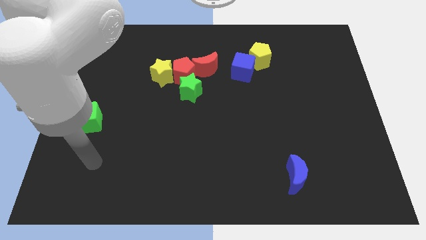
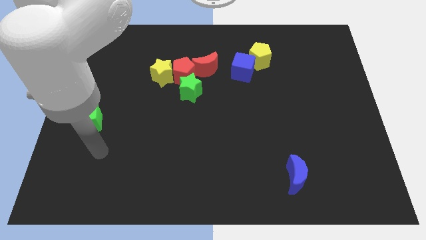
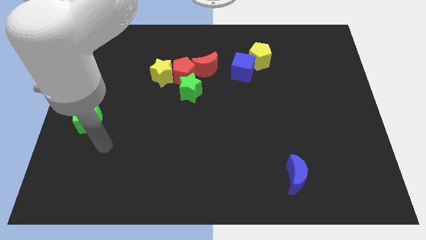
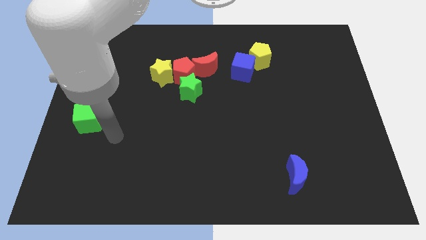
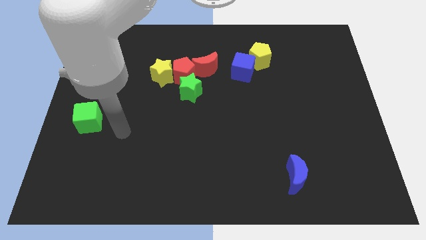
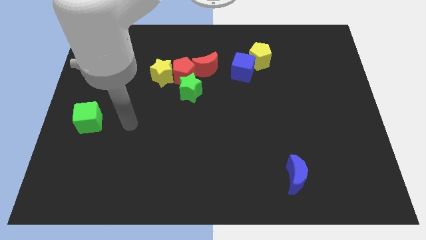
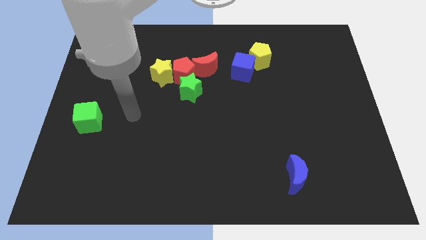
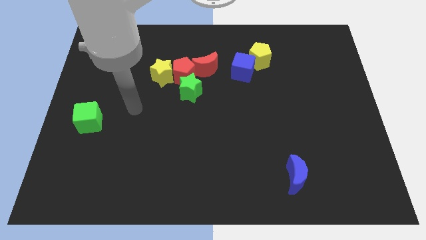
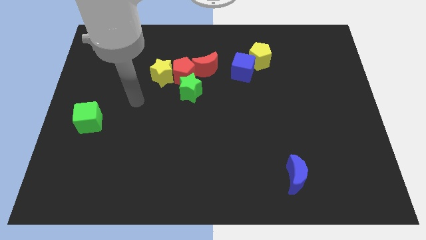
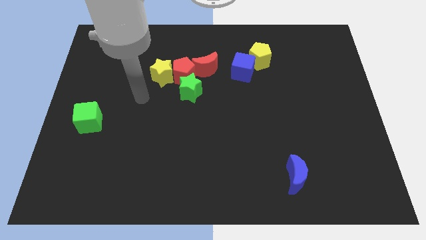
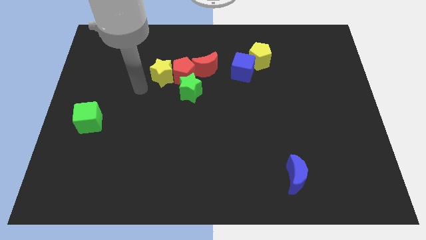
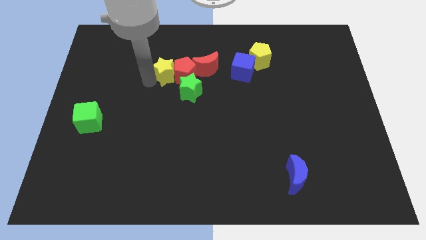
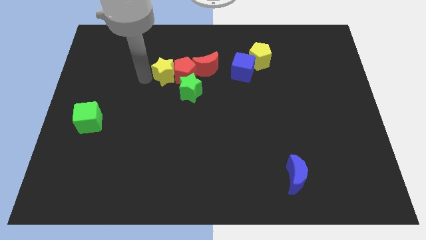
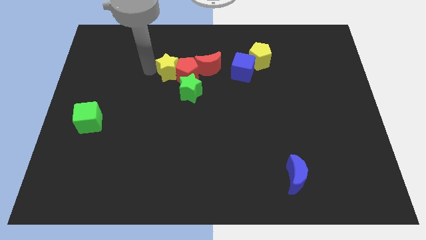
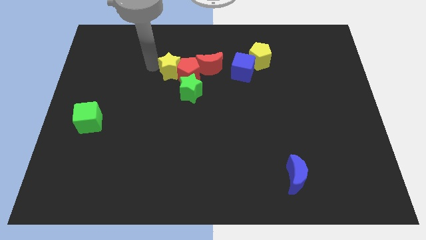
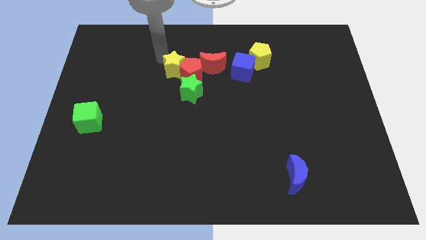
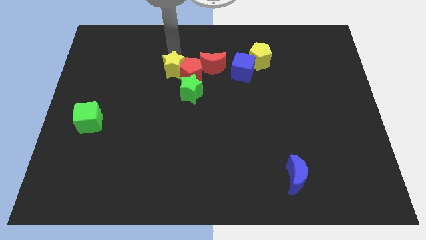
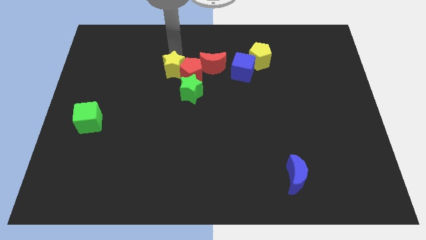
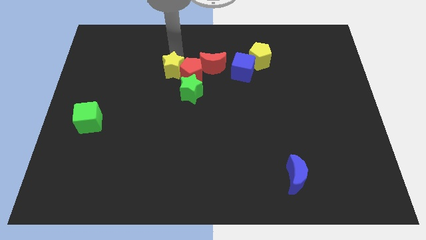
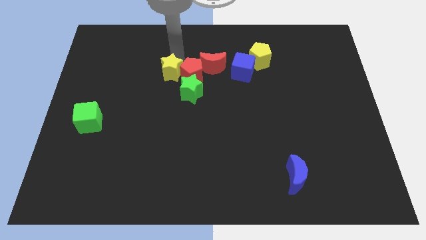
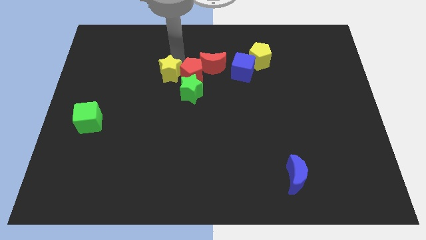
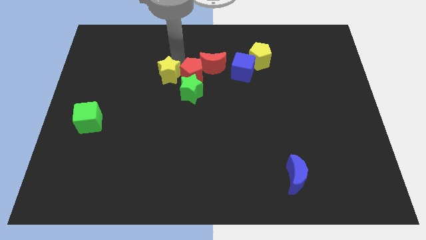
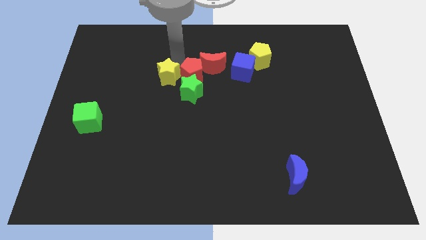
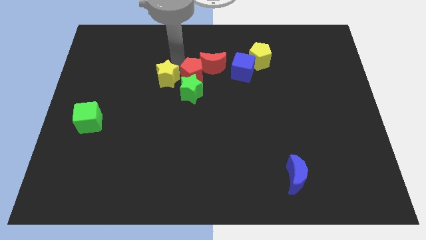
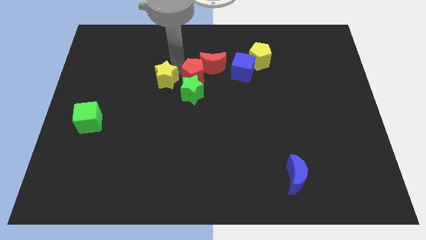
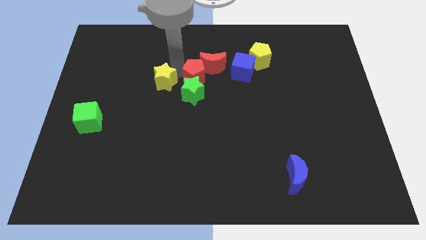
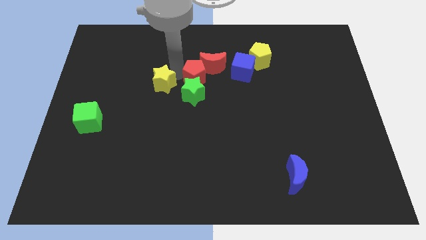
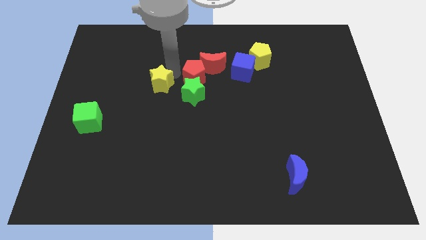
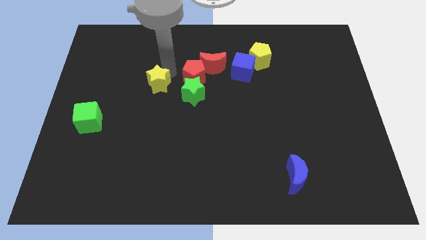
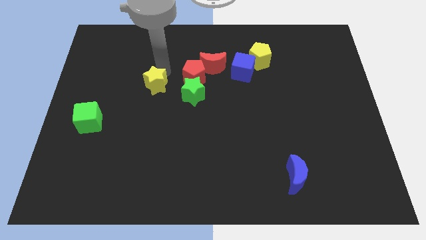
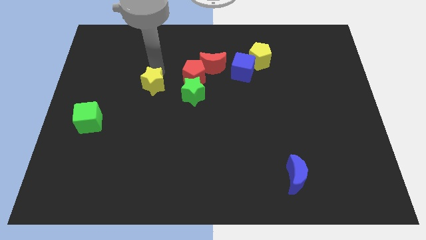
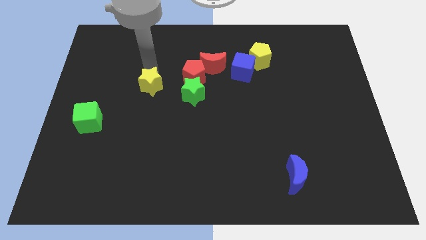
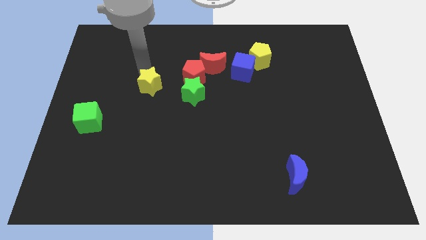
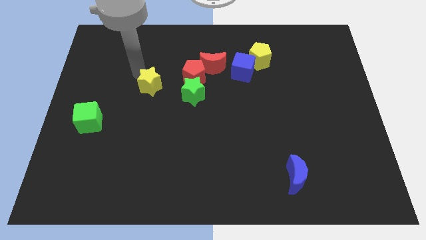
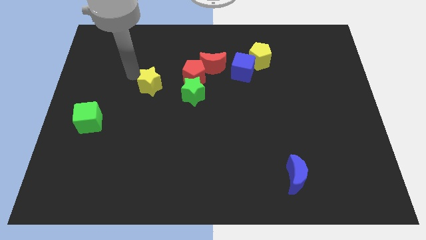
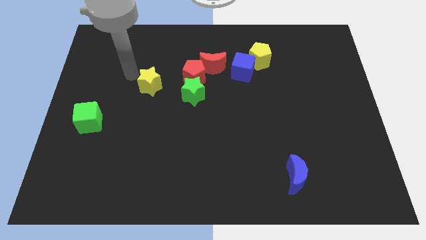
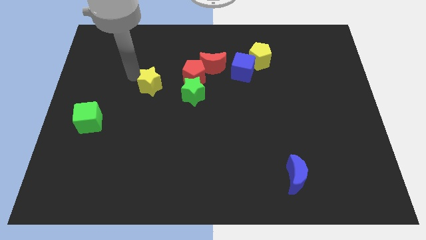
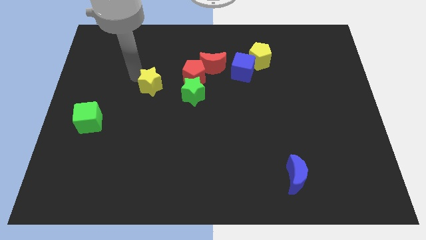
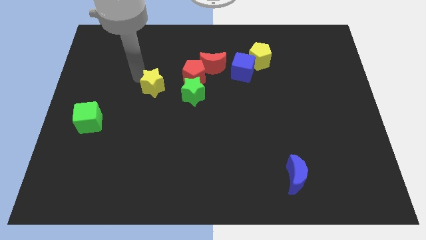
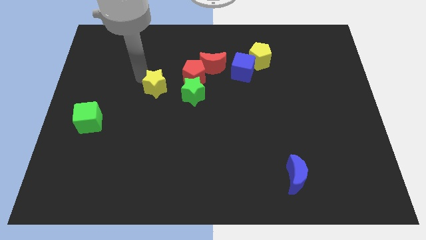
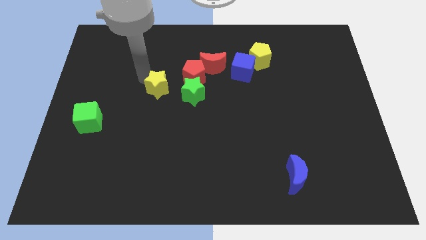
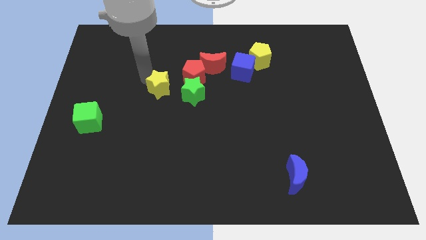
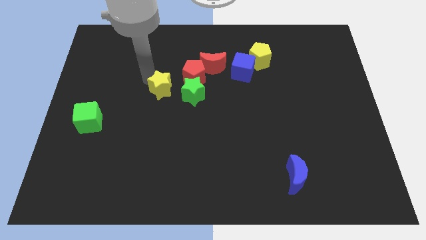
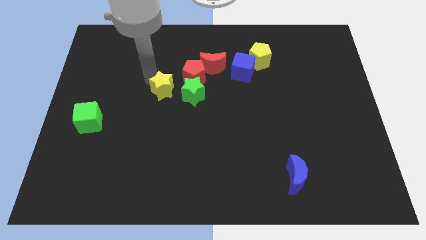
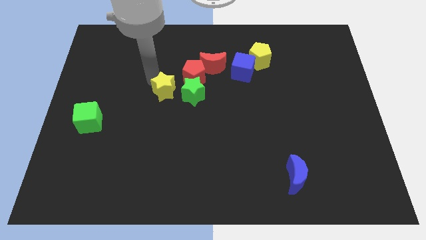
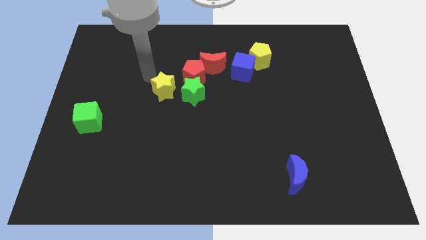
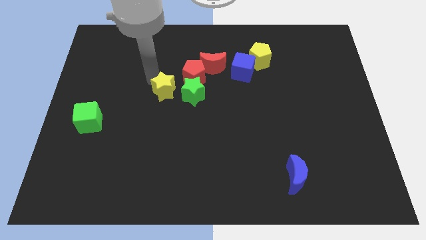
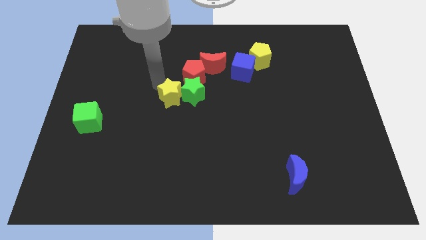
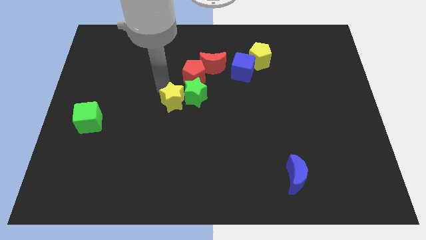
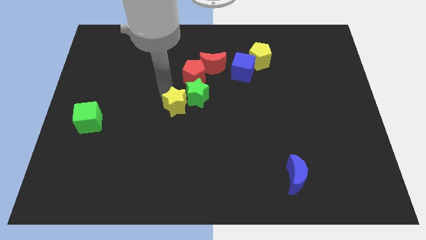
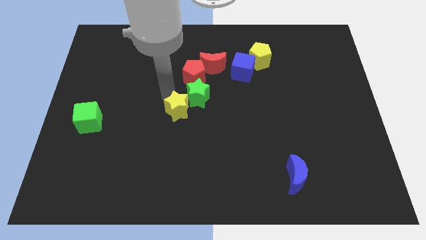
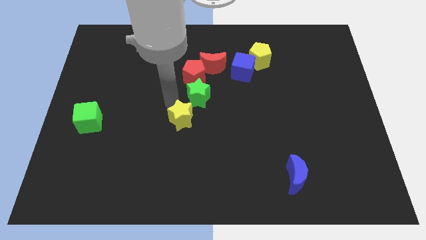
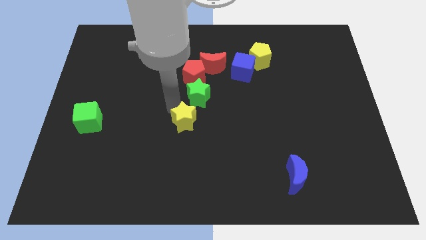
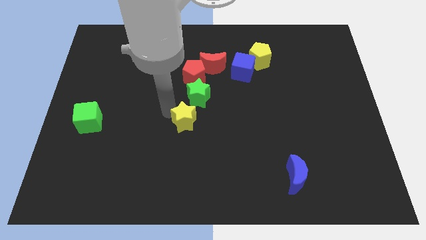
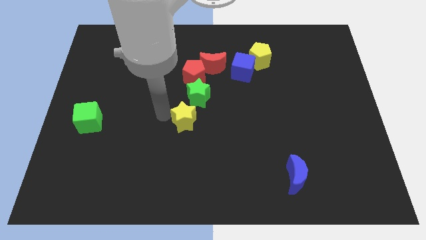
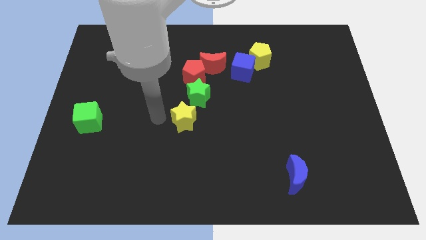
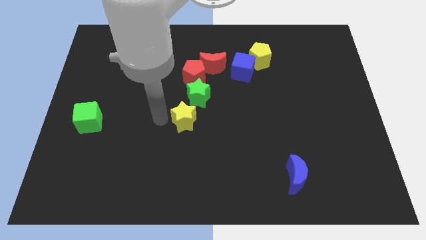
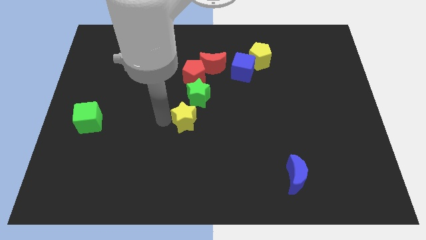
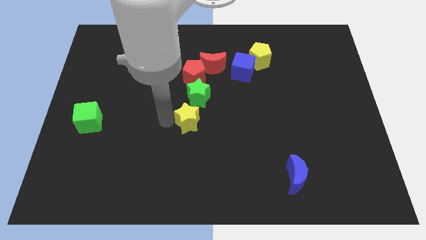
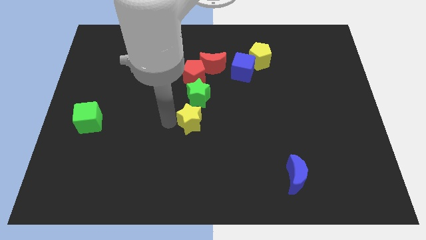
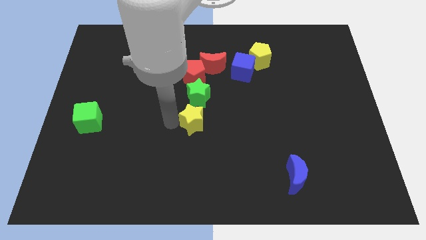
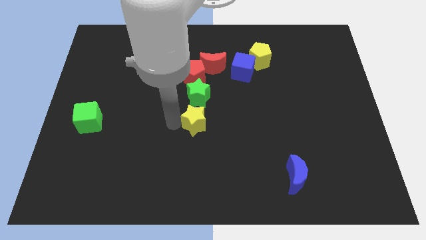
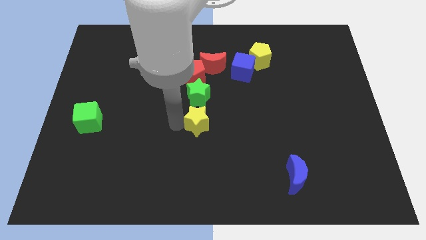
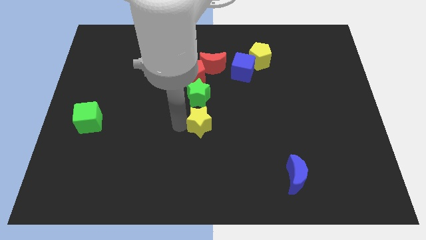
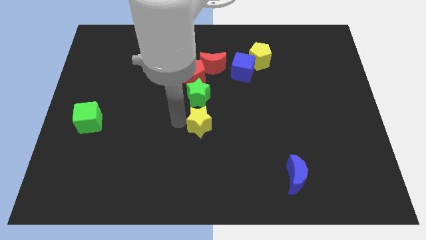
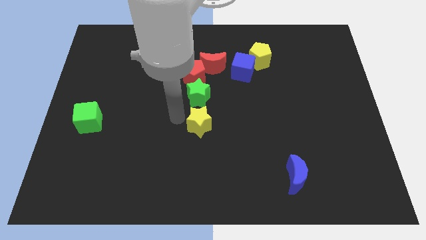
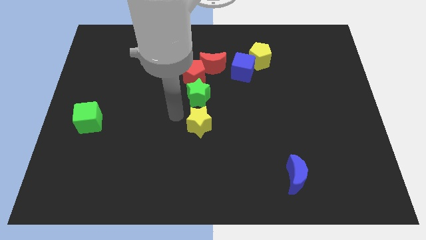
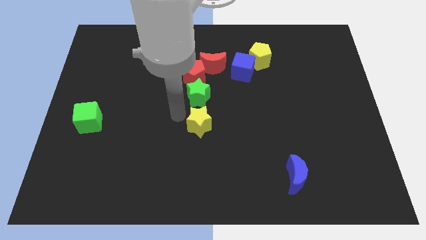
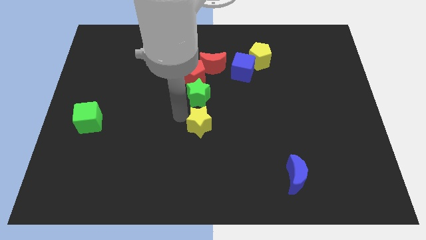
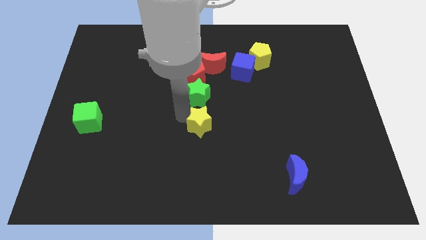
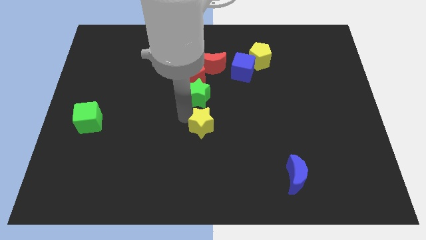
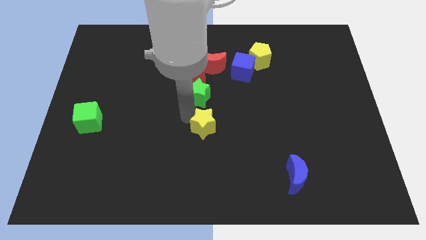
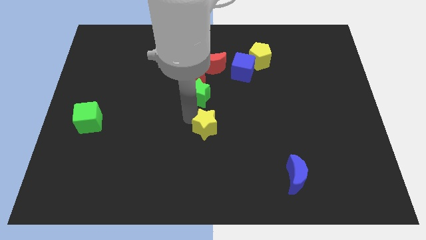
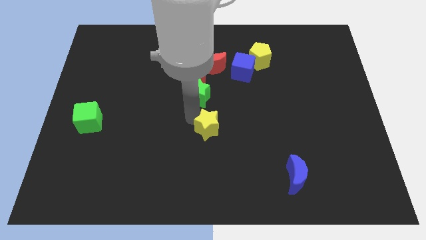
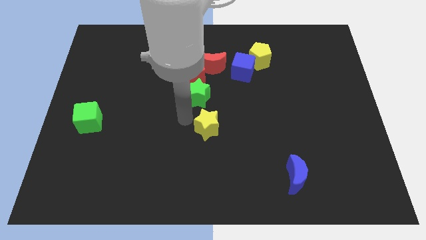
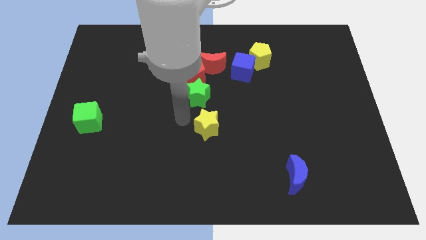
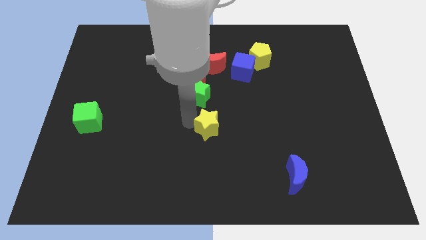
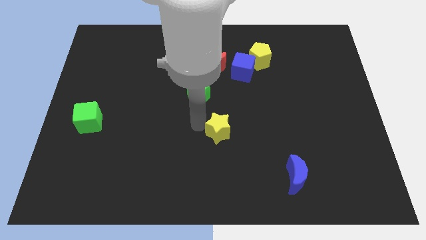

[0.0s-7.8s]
slide the yellow star downwards and then to the right
